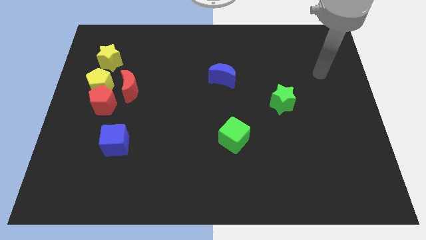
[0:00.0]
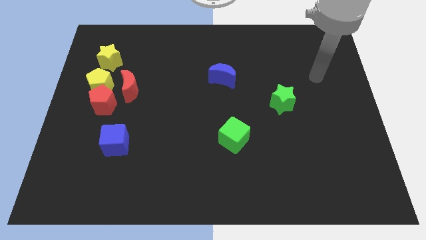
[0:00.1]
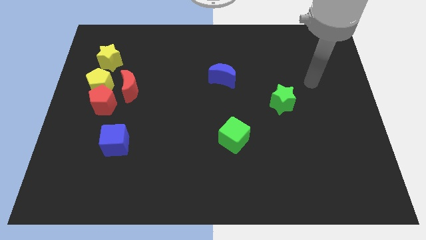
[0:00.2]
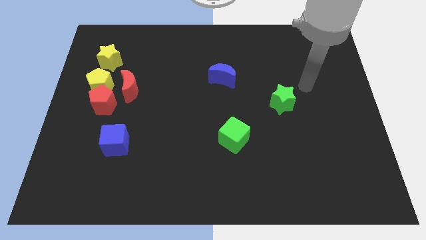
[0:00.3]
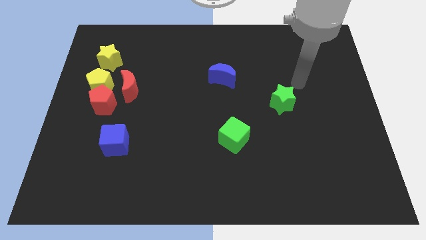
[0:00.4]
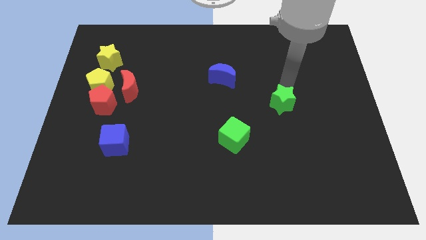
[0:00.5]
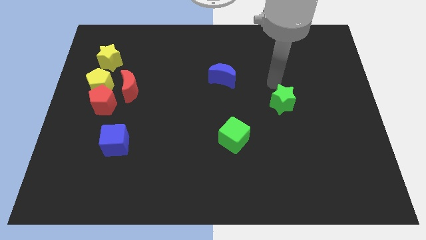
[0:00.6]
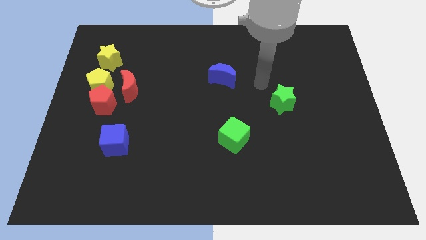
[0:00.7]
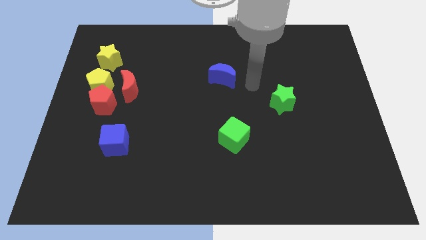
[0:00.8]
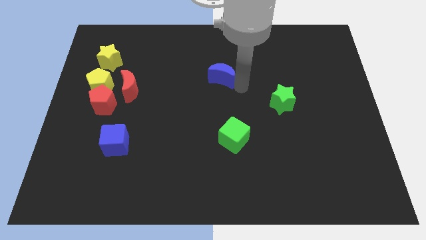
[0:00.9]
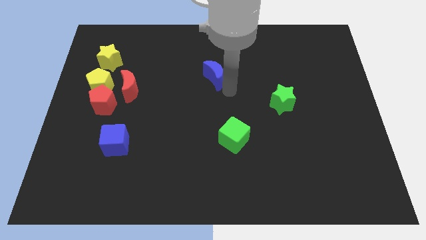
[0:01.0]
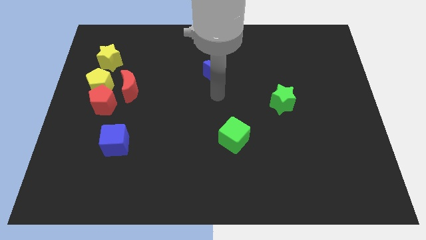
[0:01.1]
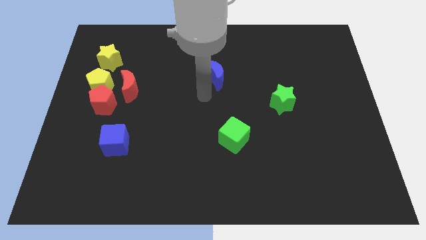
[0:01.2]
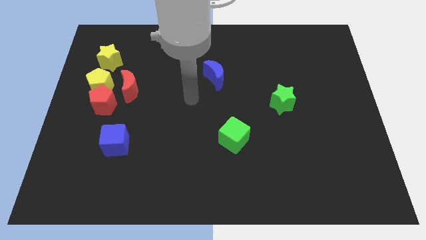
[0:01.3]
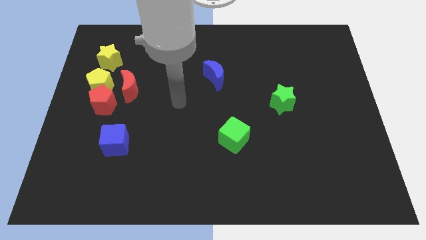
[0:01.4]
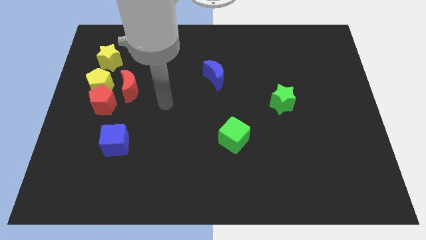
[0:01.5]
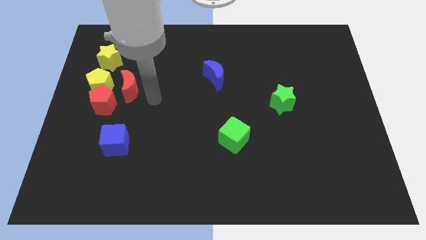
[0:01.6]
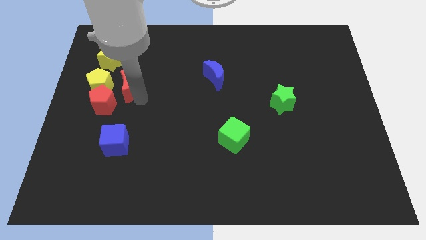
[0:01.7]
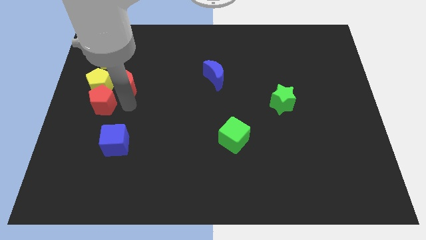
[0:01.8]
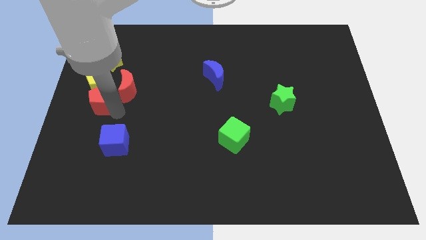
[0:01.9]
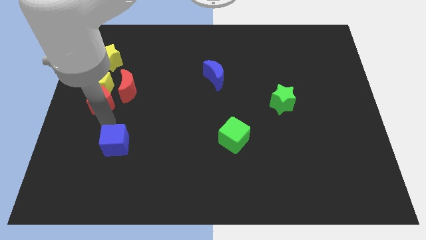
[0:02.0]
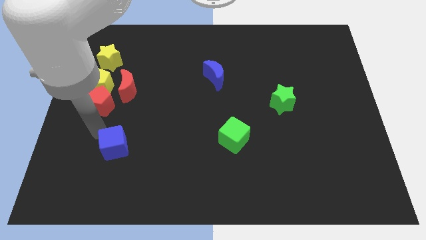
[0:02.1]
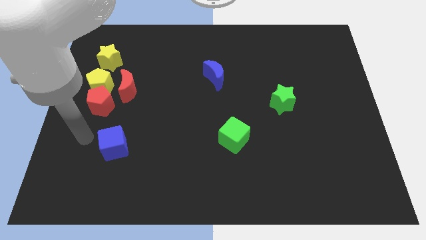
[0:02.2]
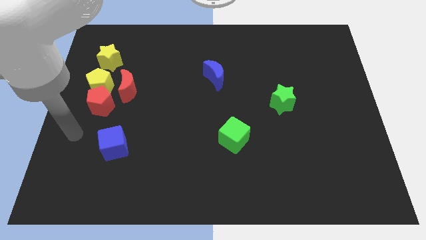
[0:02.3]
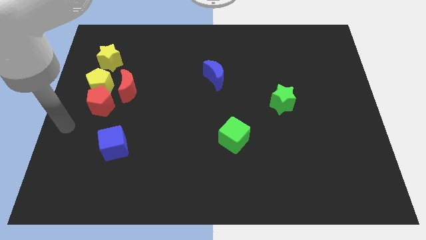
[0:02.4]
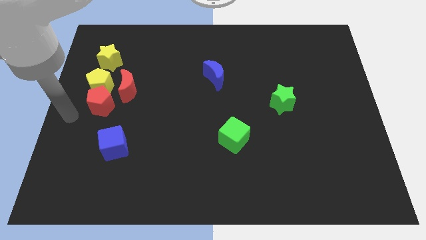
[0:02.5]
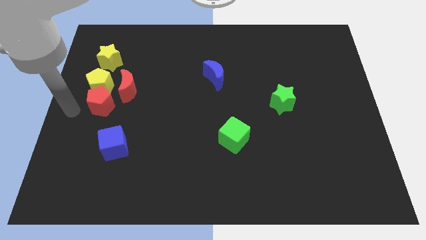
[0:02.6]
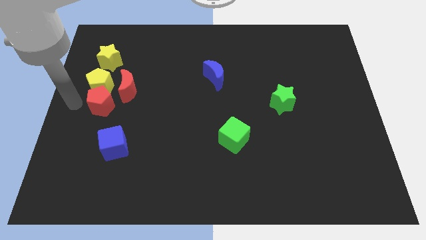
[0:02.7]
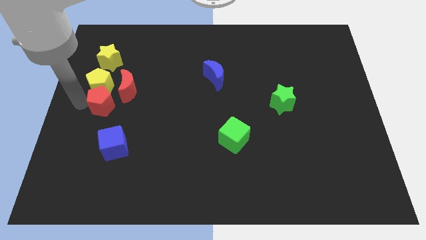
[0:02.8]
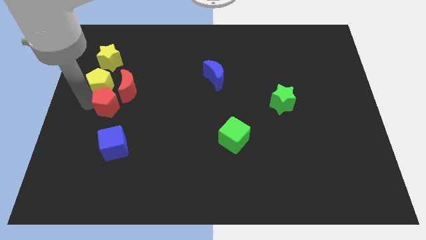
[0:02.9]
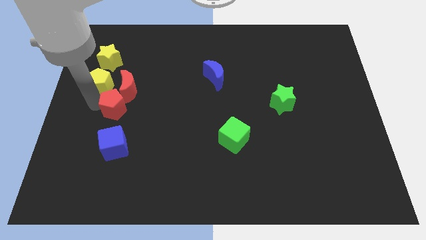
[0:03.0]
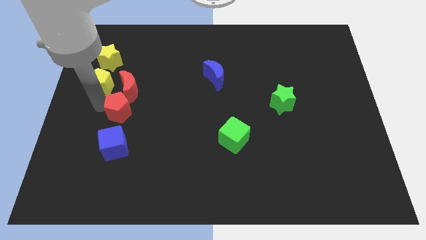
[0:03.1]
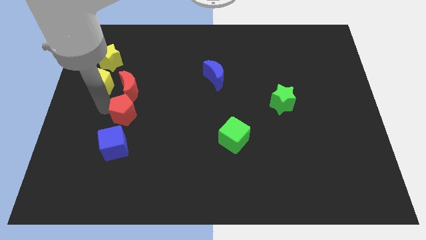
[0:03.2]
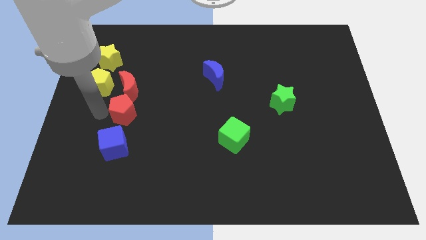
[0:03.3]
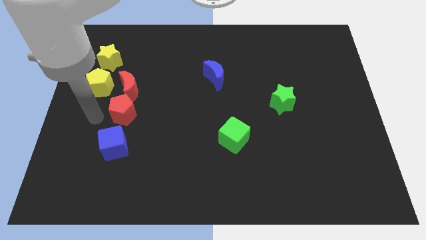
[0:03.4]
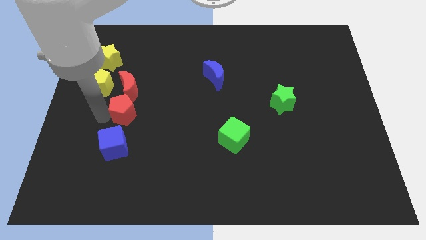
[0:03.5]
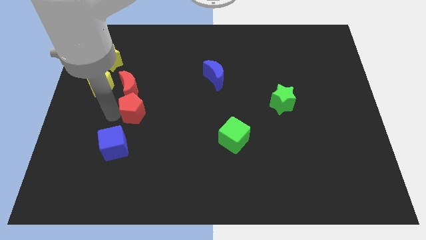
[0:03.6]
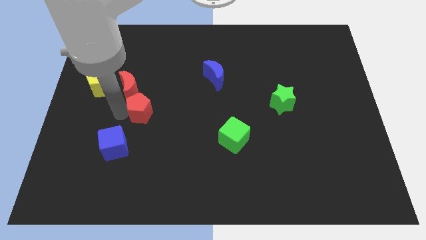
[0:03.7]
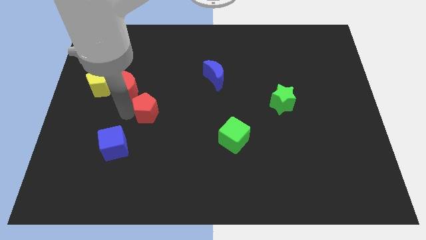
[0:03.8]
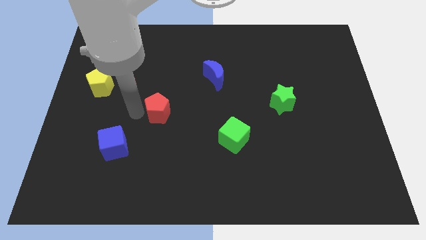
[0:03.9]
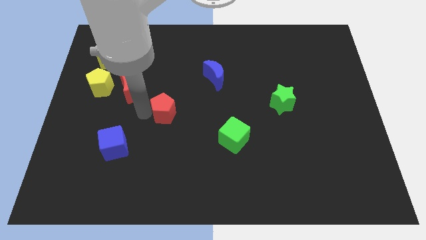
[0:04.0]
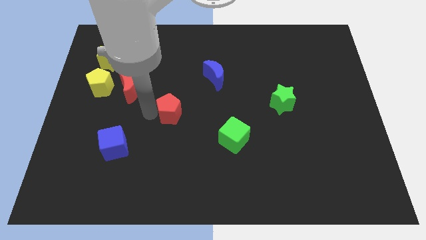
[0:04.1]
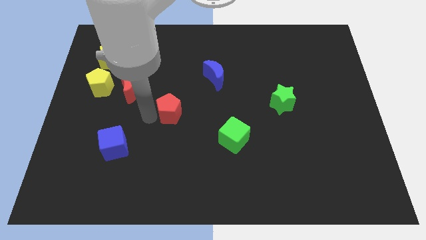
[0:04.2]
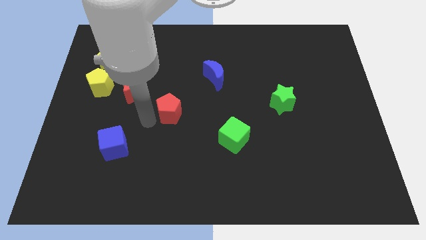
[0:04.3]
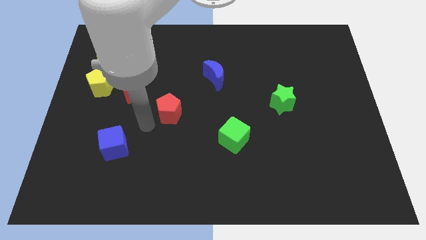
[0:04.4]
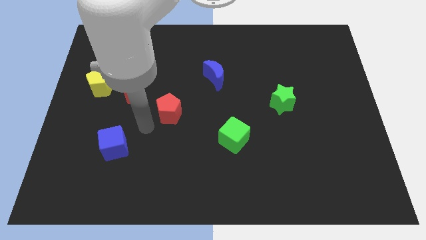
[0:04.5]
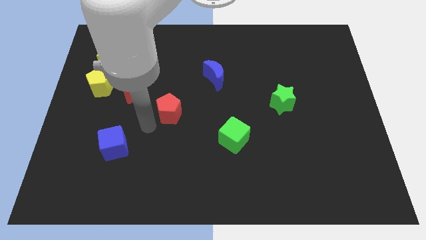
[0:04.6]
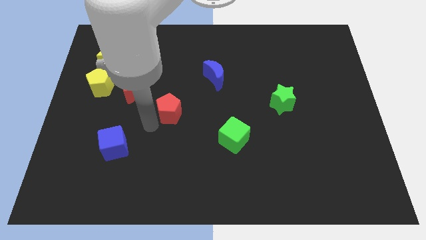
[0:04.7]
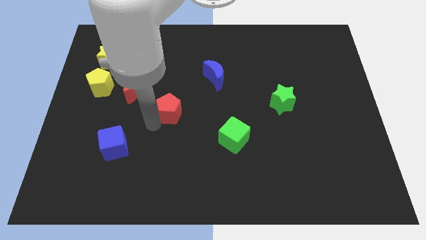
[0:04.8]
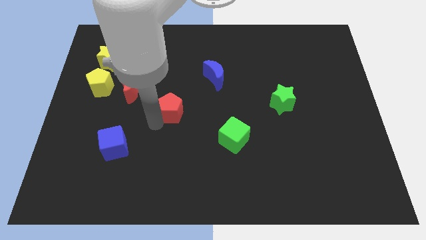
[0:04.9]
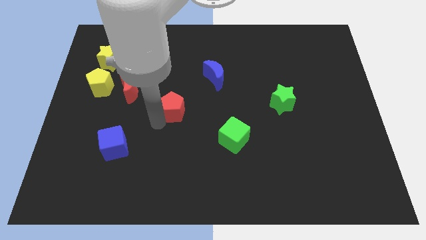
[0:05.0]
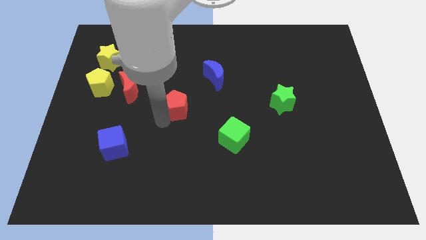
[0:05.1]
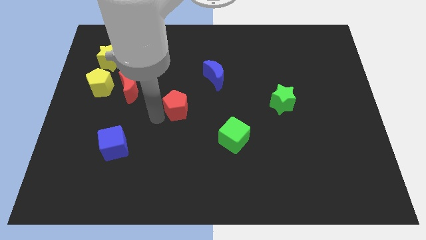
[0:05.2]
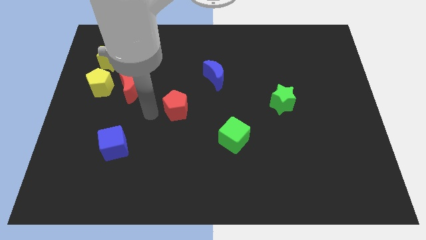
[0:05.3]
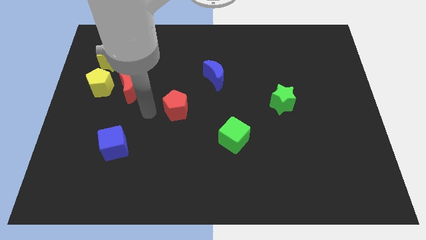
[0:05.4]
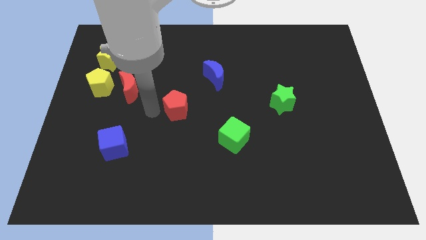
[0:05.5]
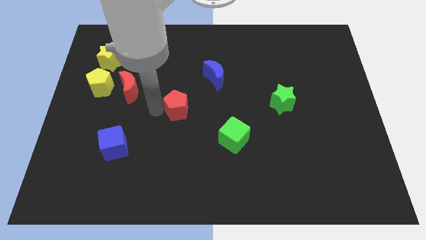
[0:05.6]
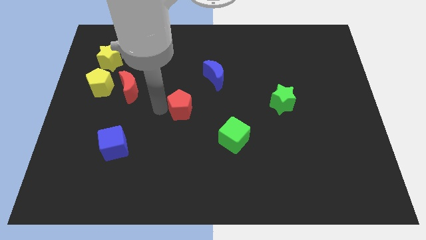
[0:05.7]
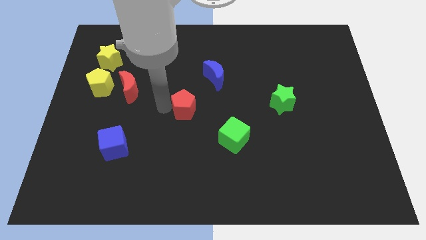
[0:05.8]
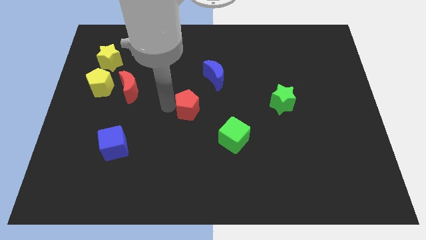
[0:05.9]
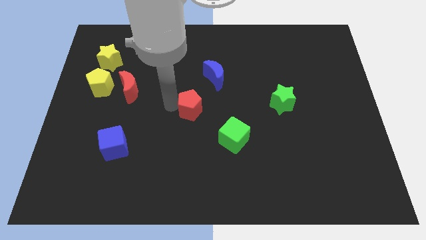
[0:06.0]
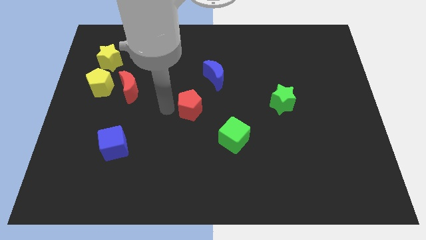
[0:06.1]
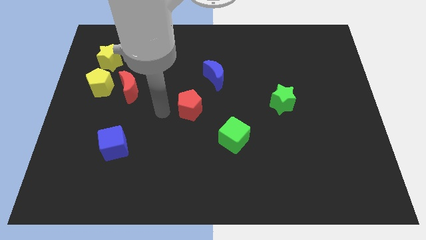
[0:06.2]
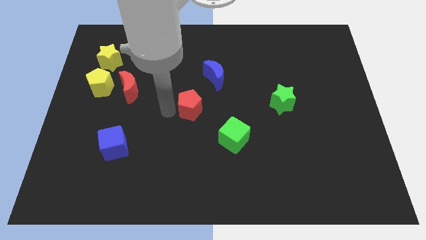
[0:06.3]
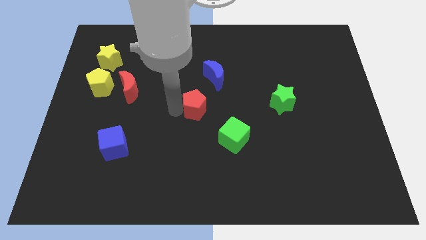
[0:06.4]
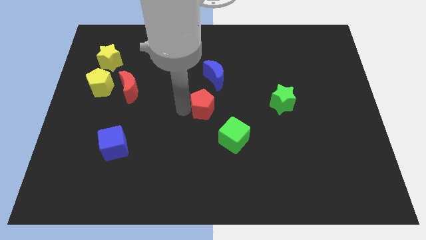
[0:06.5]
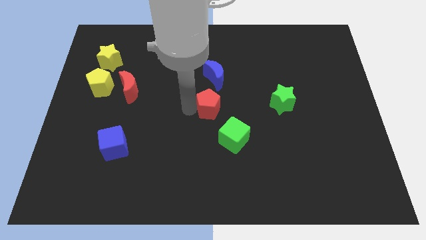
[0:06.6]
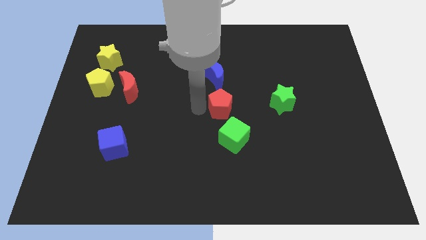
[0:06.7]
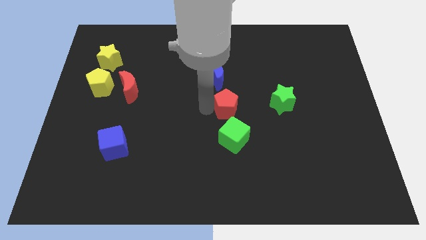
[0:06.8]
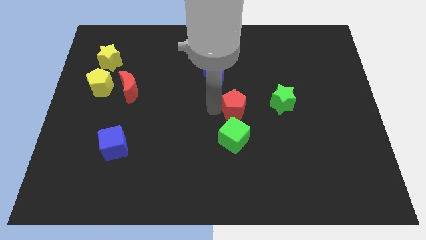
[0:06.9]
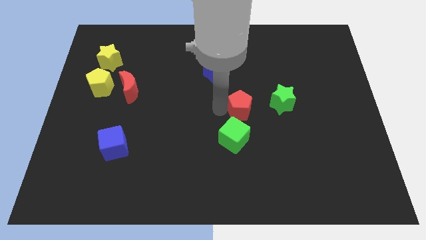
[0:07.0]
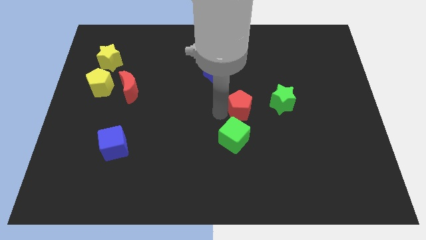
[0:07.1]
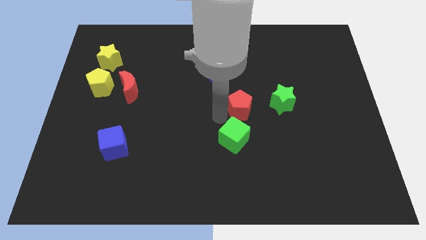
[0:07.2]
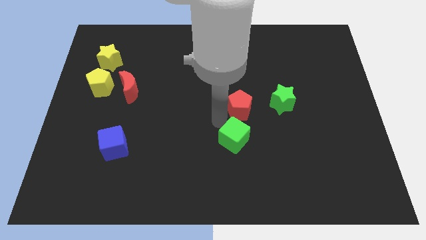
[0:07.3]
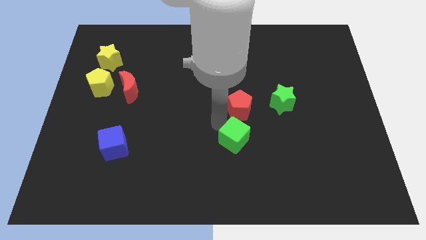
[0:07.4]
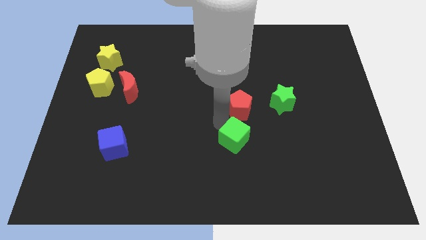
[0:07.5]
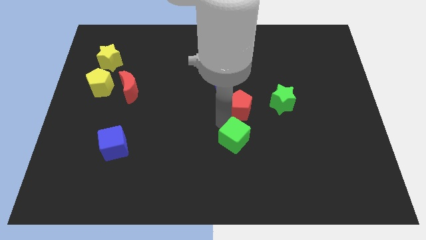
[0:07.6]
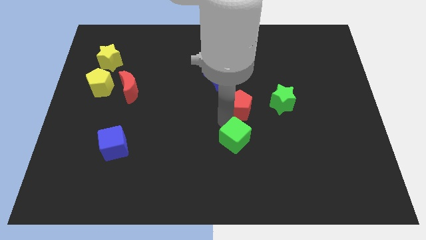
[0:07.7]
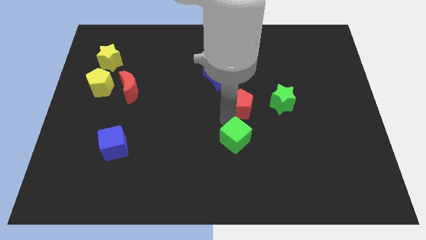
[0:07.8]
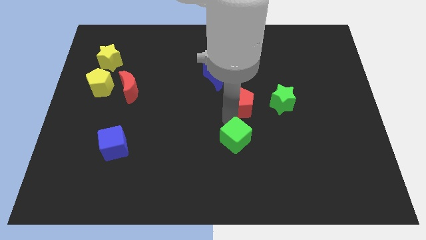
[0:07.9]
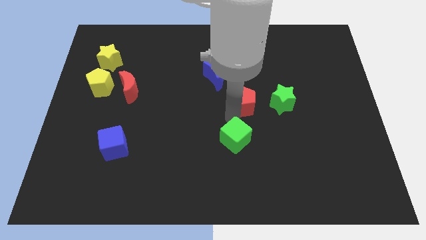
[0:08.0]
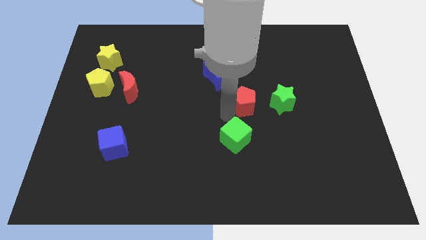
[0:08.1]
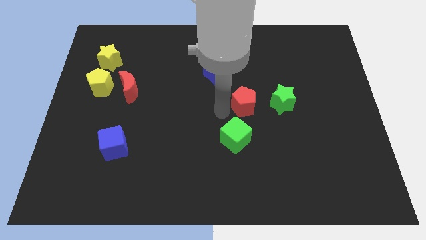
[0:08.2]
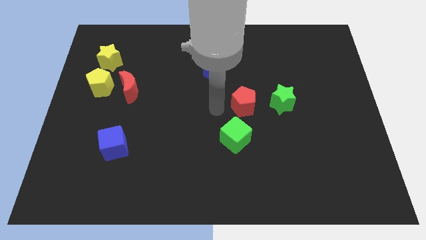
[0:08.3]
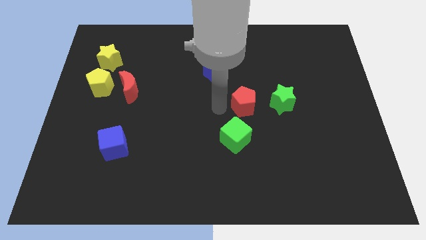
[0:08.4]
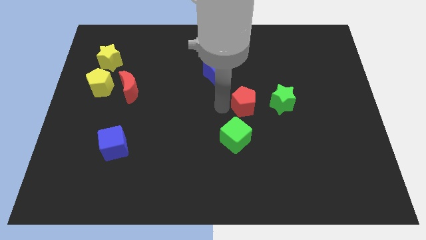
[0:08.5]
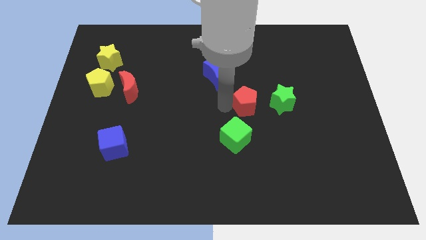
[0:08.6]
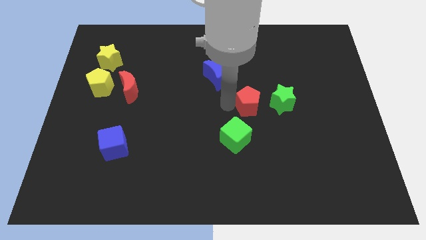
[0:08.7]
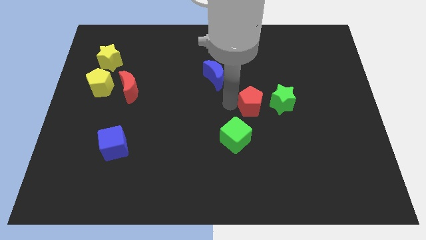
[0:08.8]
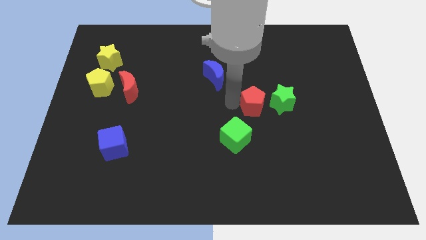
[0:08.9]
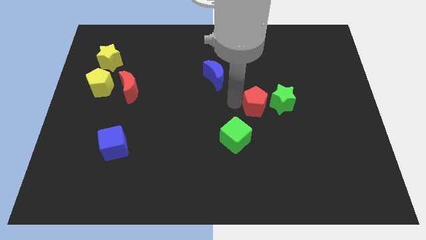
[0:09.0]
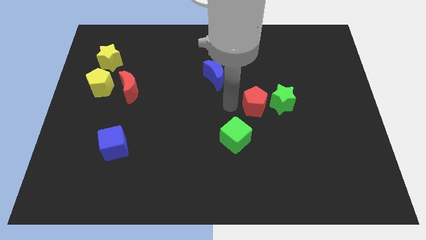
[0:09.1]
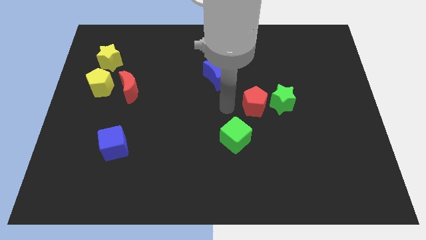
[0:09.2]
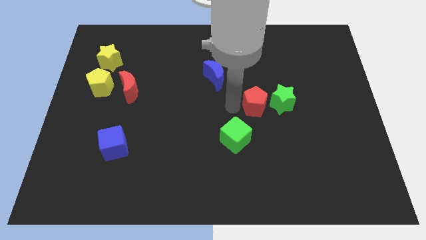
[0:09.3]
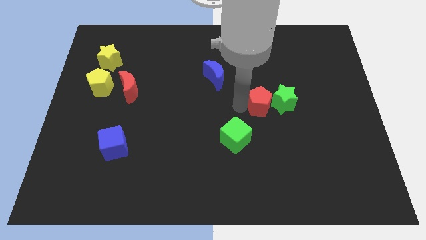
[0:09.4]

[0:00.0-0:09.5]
put the red pentagon next to the green star
